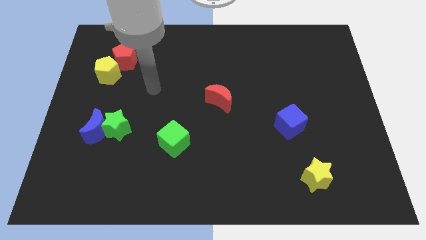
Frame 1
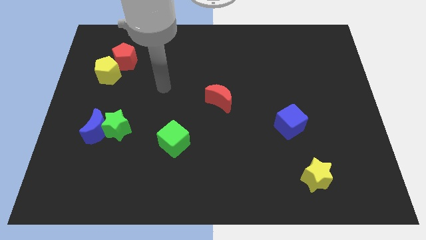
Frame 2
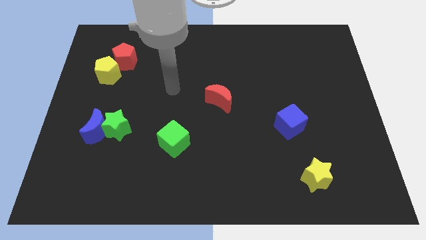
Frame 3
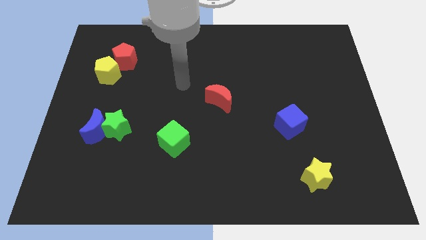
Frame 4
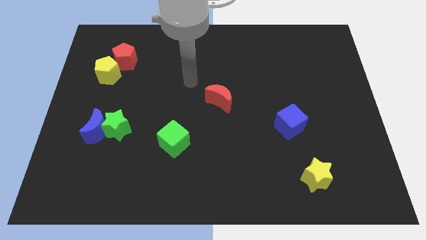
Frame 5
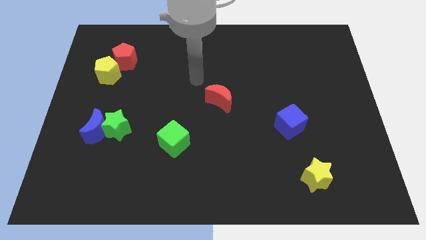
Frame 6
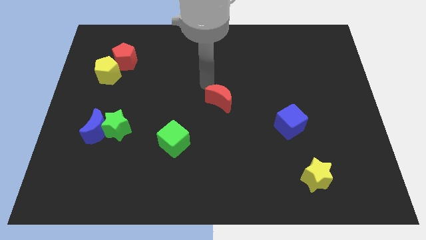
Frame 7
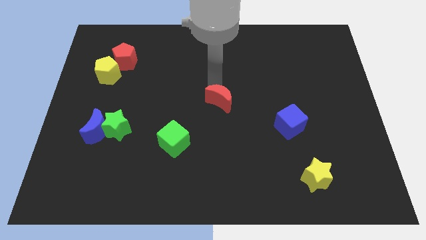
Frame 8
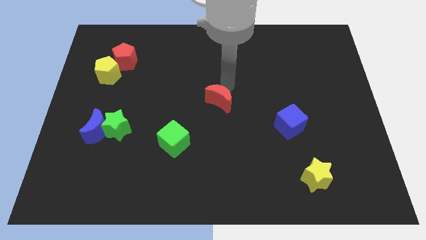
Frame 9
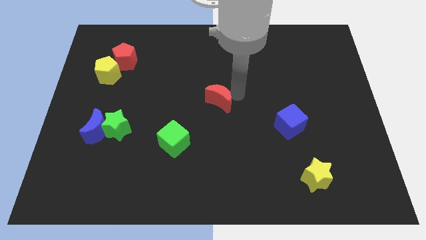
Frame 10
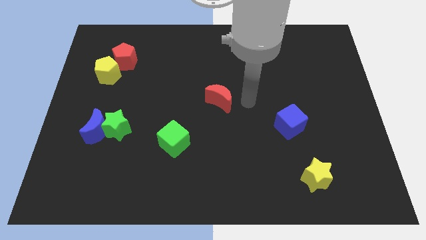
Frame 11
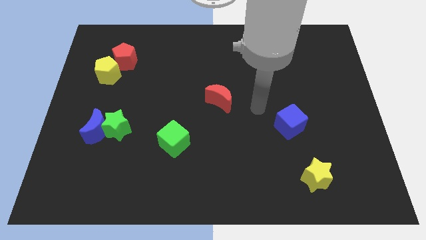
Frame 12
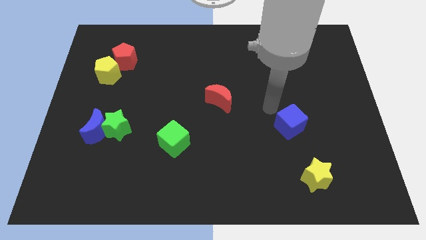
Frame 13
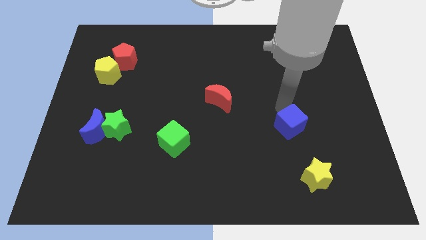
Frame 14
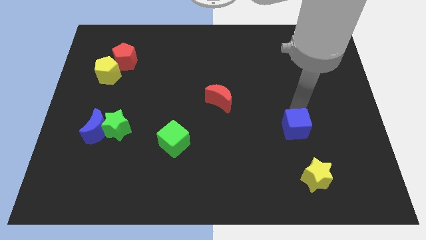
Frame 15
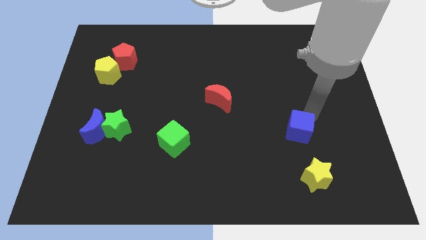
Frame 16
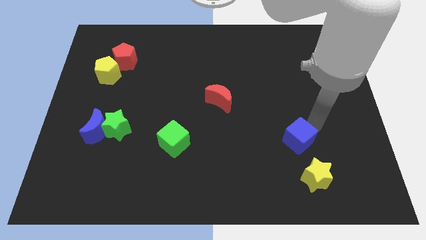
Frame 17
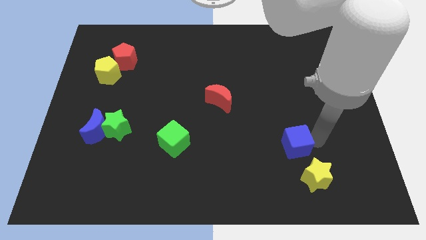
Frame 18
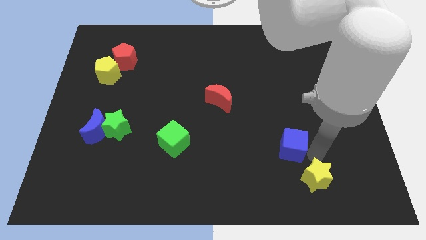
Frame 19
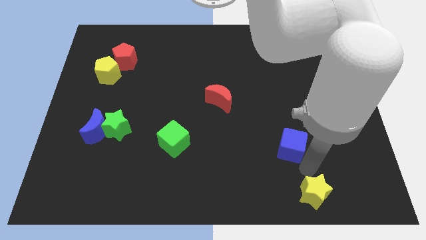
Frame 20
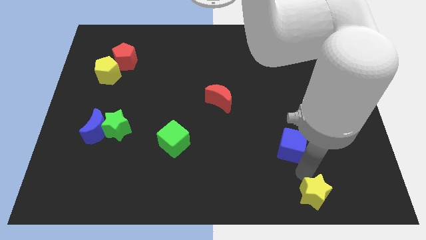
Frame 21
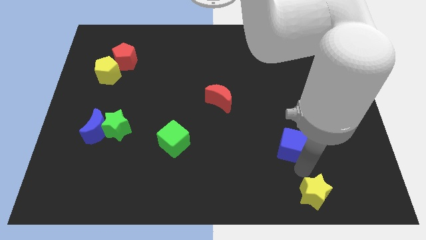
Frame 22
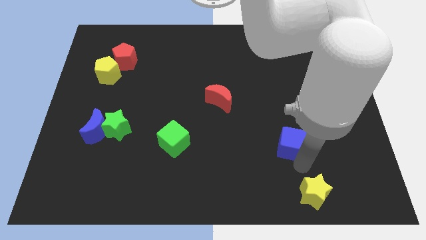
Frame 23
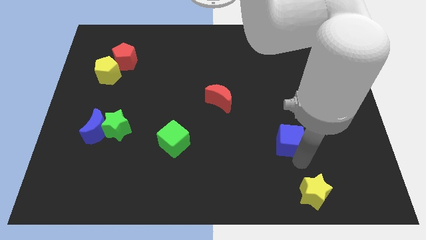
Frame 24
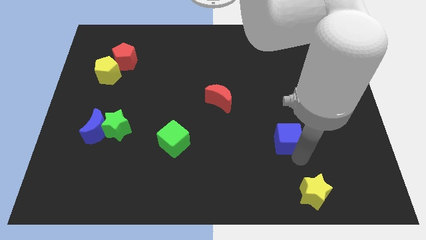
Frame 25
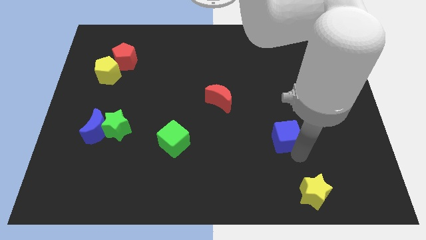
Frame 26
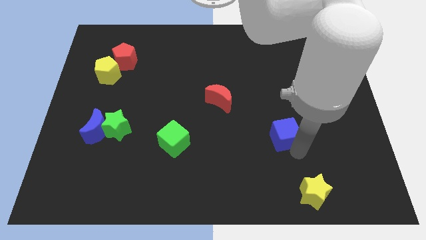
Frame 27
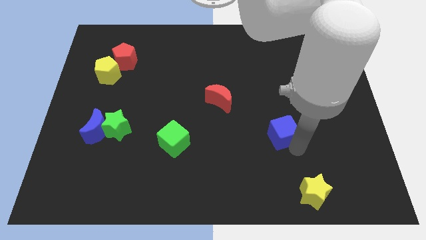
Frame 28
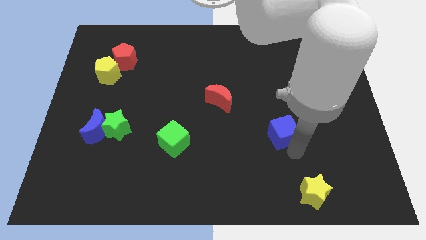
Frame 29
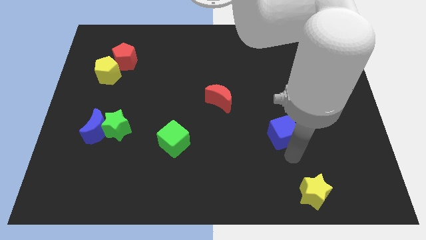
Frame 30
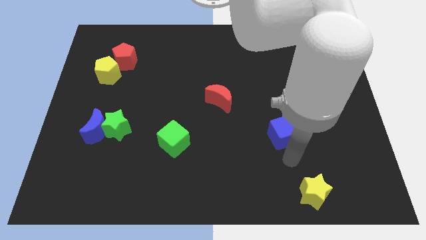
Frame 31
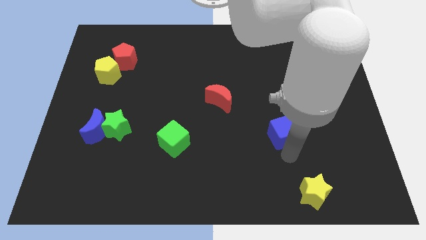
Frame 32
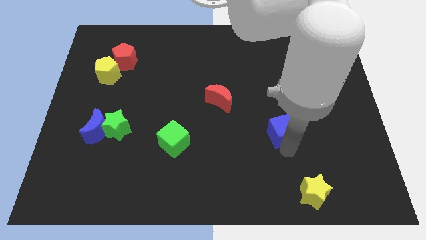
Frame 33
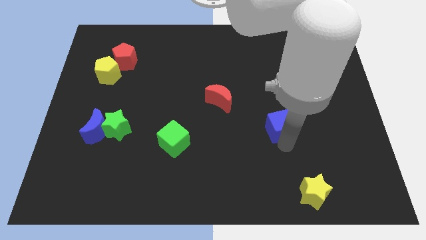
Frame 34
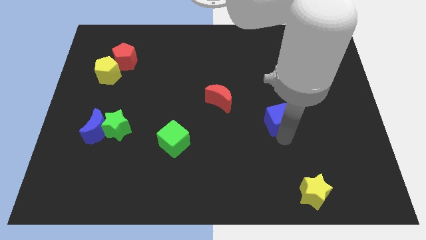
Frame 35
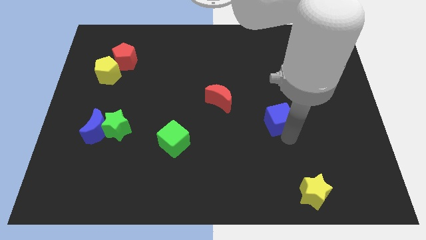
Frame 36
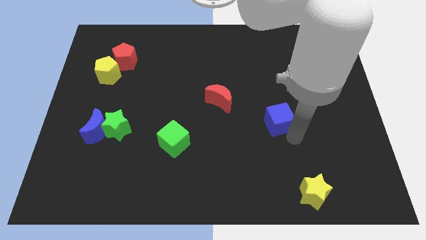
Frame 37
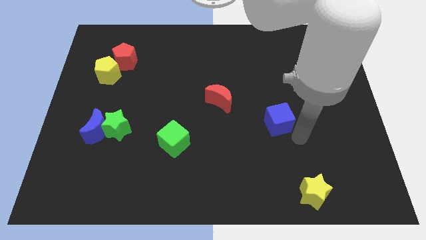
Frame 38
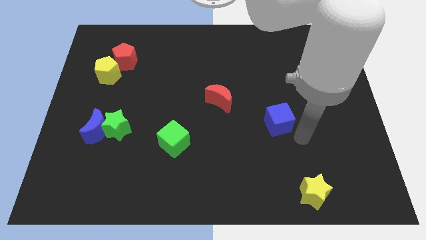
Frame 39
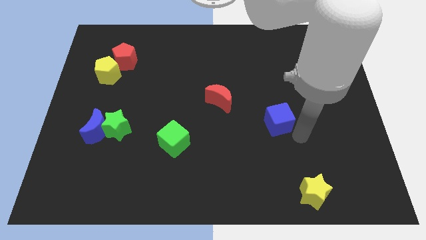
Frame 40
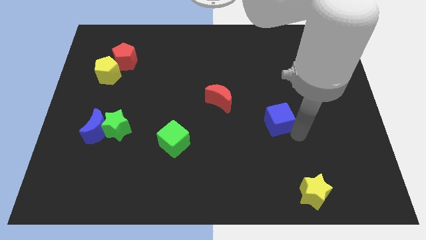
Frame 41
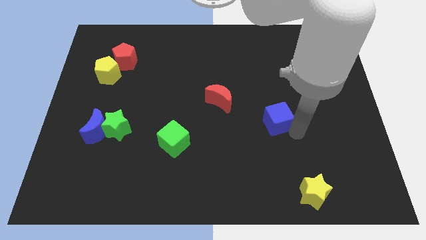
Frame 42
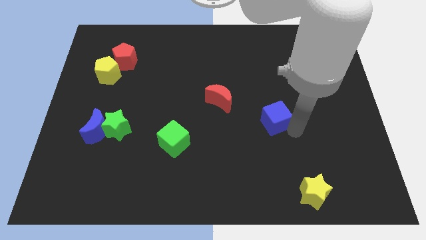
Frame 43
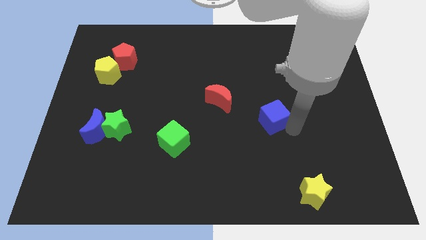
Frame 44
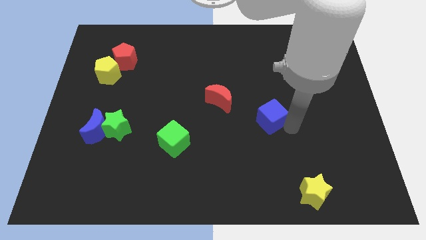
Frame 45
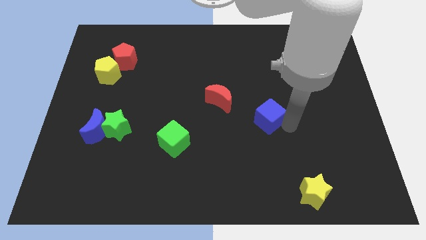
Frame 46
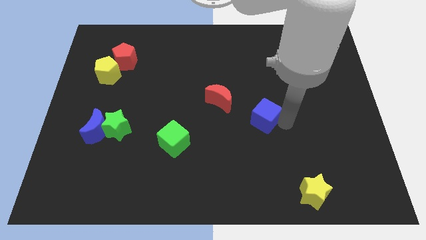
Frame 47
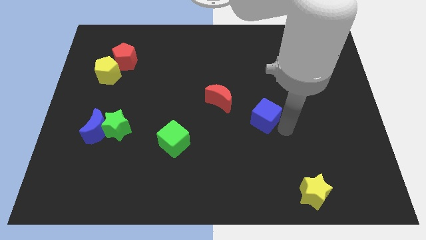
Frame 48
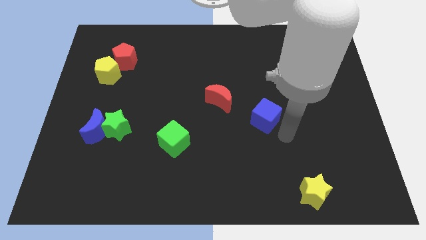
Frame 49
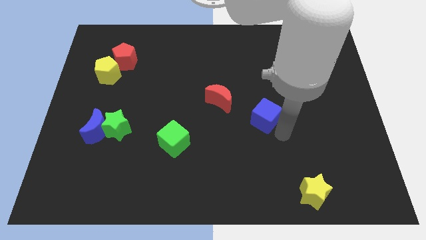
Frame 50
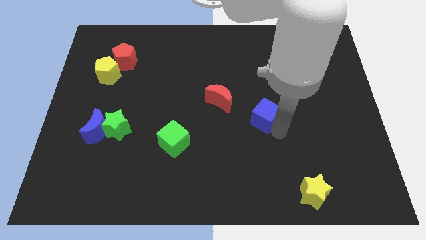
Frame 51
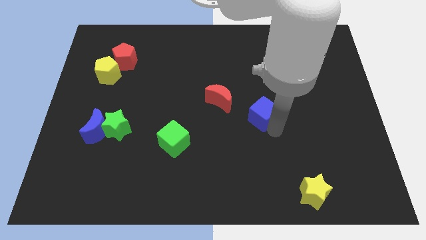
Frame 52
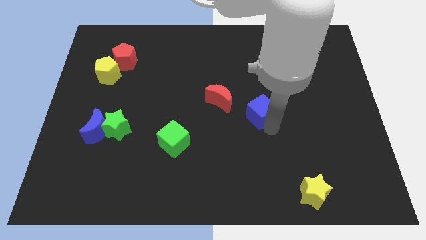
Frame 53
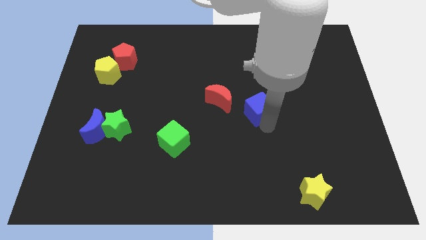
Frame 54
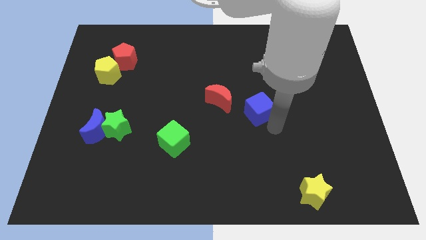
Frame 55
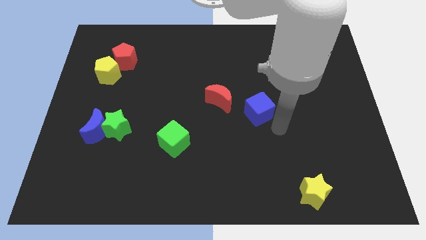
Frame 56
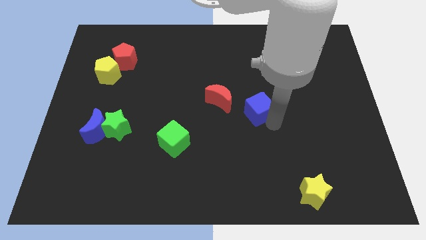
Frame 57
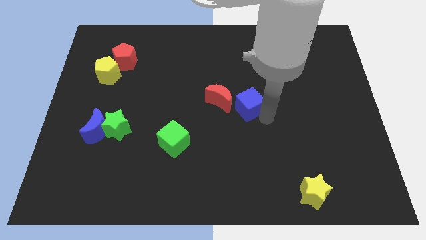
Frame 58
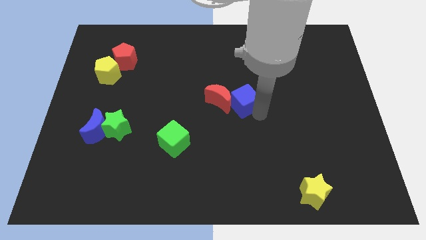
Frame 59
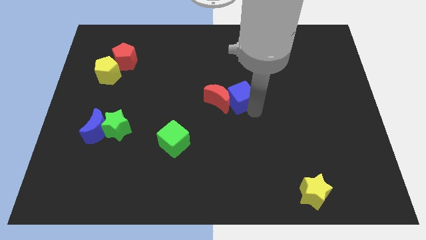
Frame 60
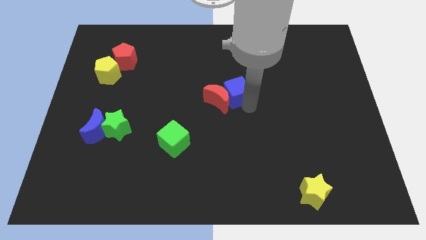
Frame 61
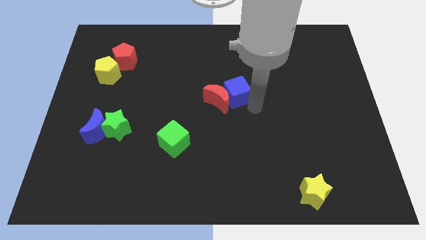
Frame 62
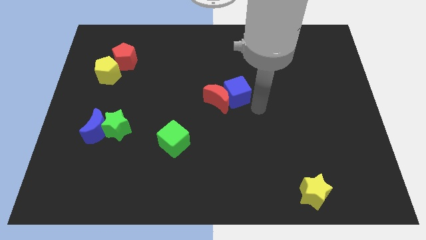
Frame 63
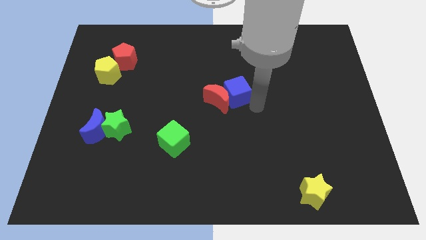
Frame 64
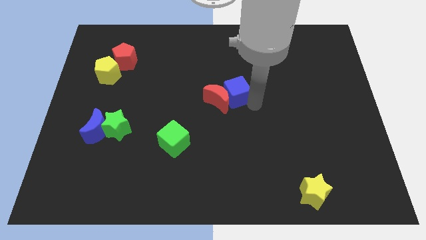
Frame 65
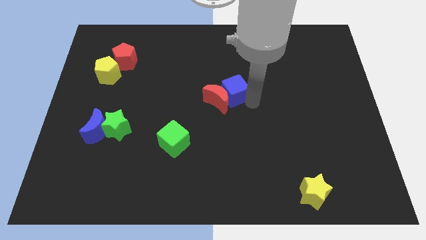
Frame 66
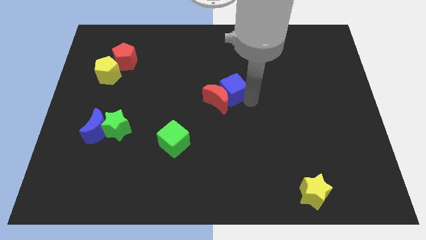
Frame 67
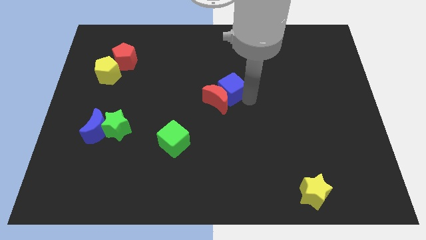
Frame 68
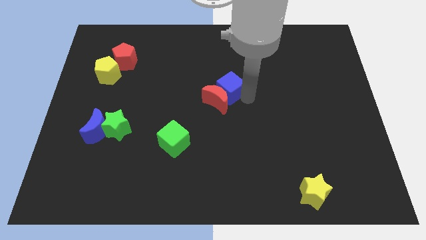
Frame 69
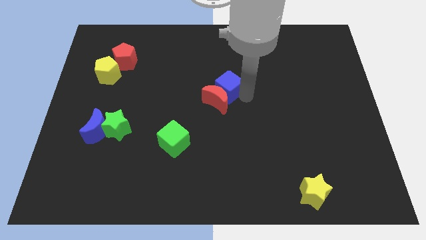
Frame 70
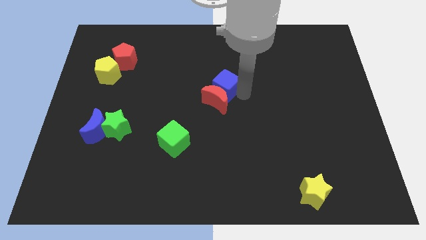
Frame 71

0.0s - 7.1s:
move the blue cube diagonally up and to the left of the red moon

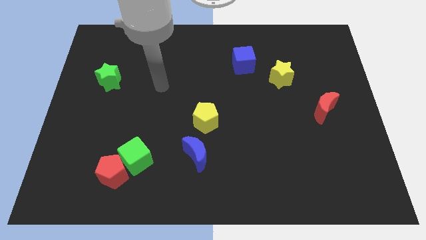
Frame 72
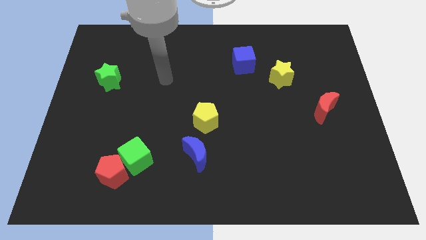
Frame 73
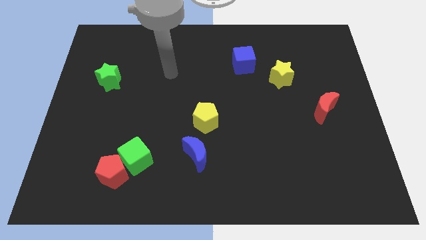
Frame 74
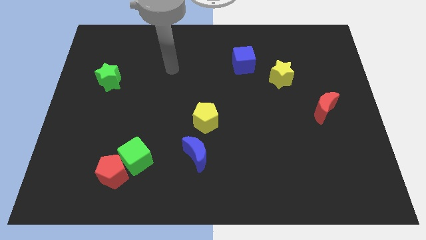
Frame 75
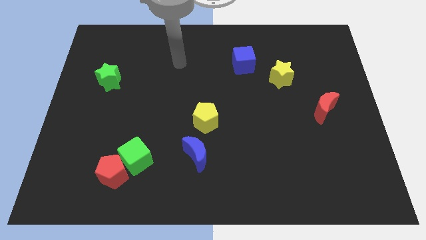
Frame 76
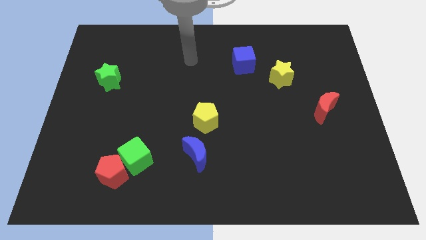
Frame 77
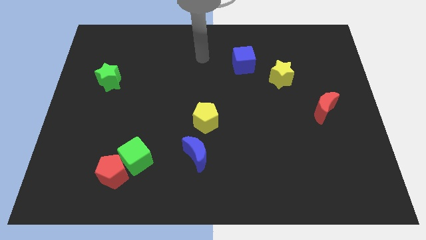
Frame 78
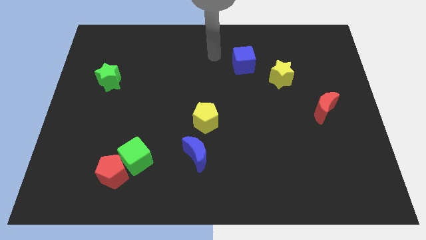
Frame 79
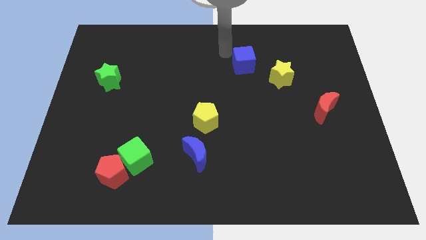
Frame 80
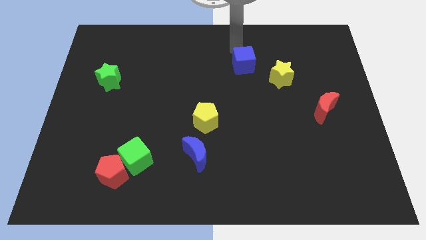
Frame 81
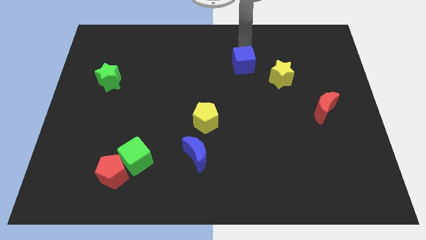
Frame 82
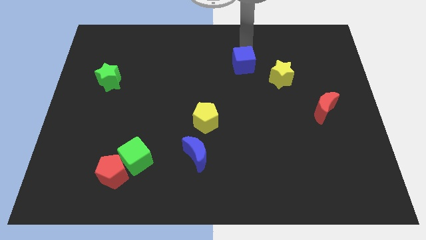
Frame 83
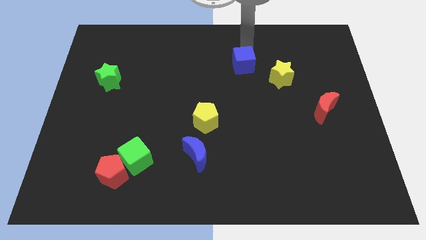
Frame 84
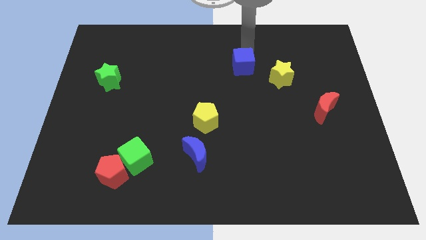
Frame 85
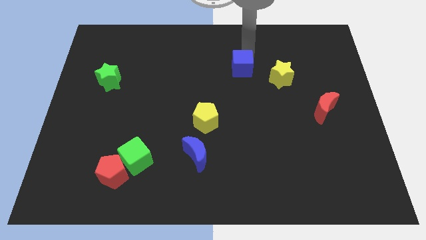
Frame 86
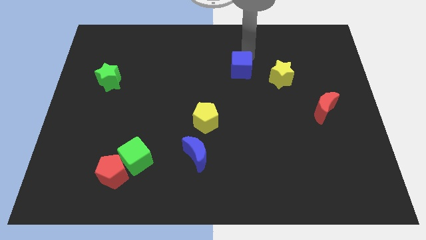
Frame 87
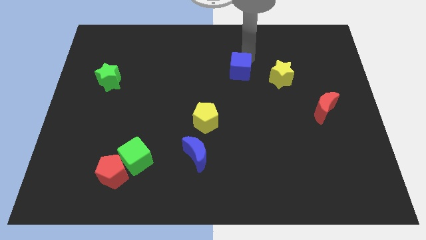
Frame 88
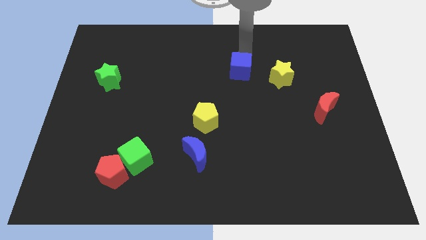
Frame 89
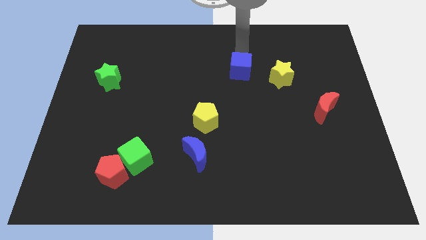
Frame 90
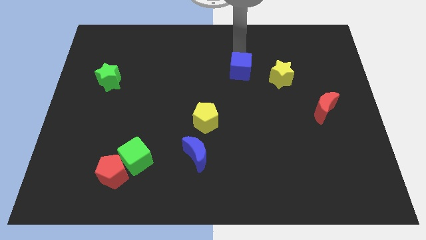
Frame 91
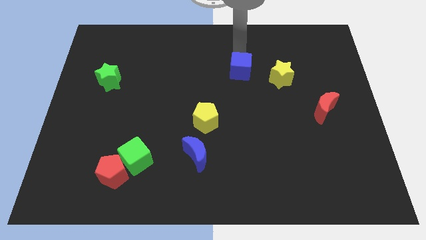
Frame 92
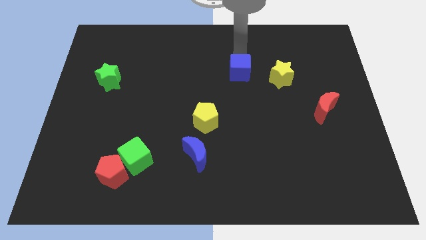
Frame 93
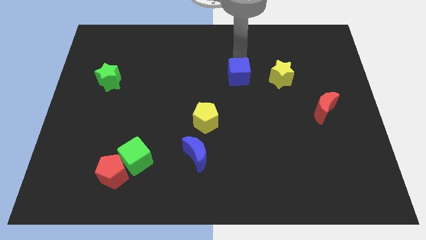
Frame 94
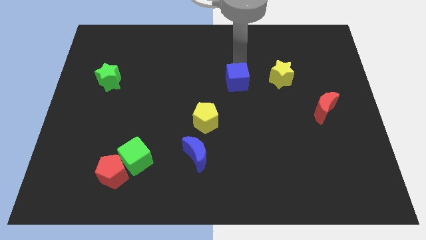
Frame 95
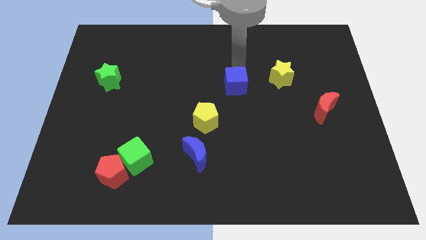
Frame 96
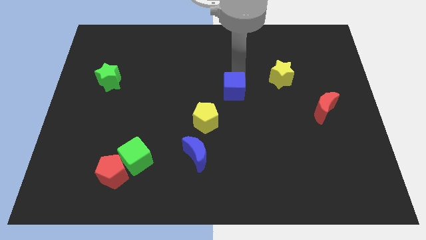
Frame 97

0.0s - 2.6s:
put the blue cube to the top right side of the yellow pentagon
